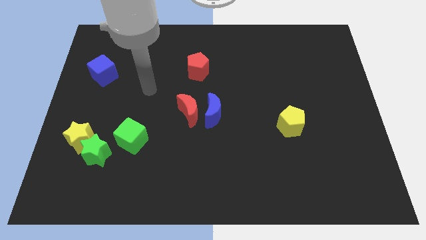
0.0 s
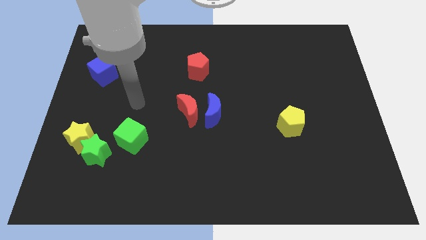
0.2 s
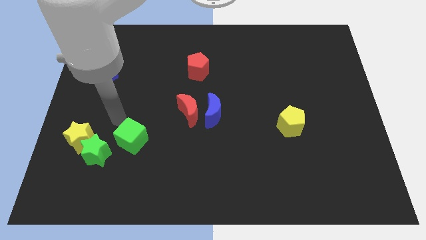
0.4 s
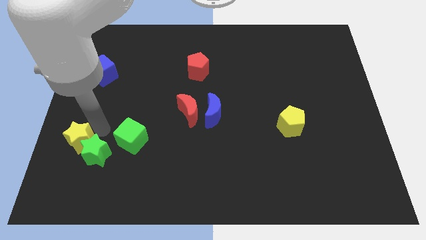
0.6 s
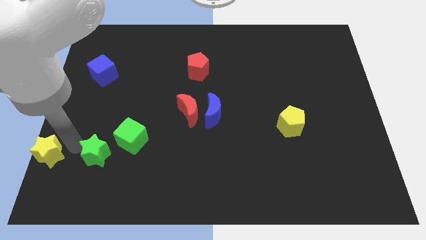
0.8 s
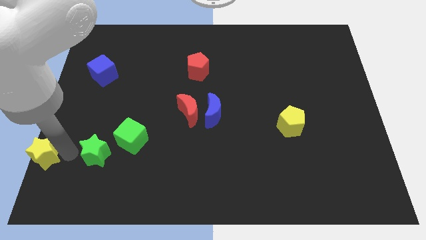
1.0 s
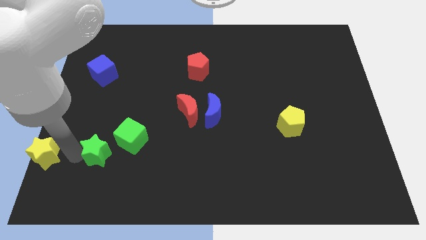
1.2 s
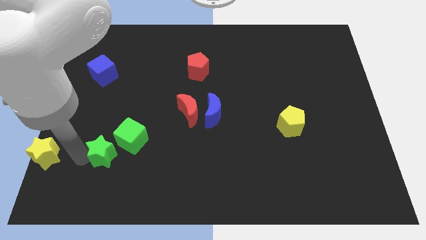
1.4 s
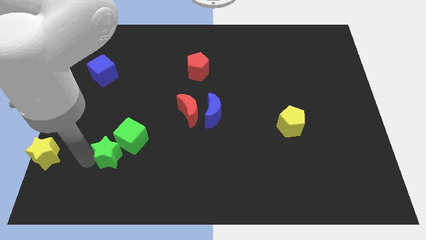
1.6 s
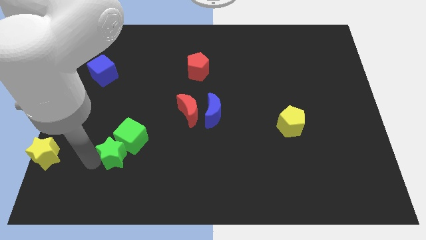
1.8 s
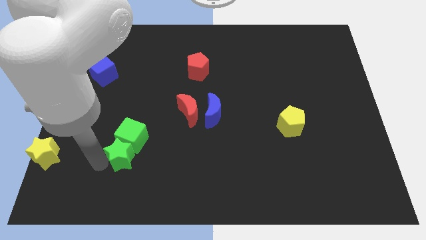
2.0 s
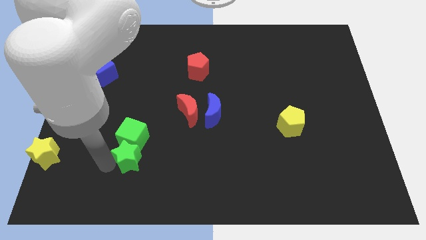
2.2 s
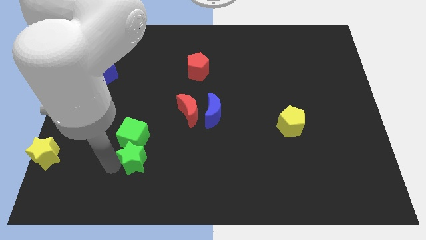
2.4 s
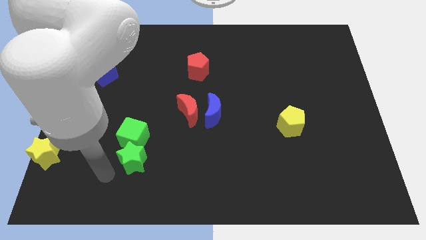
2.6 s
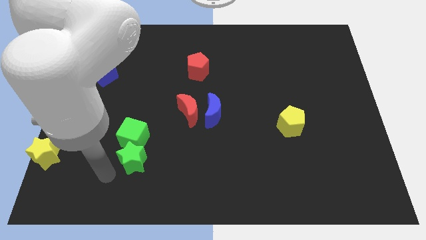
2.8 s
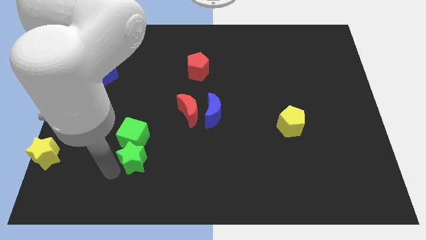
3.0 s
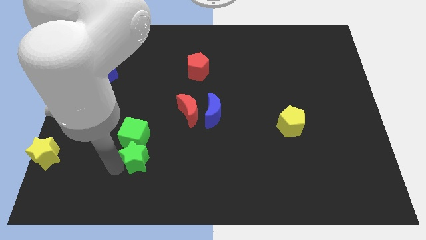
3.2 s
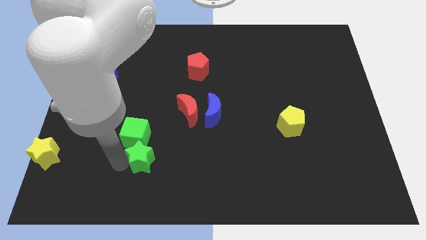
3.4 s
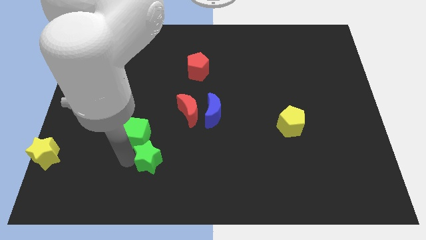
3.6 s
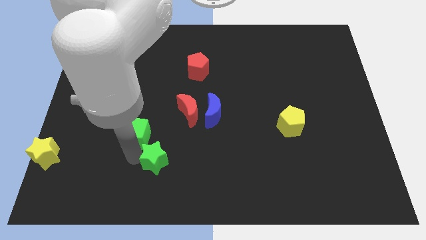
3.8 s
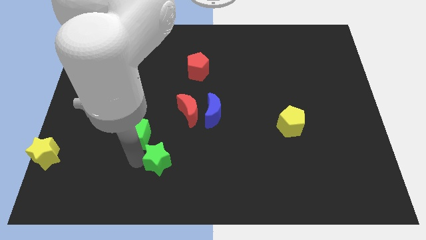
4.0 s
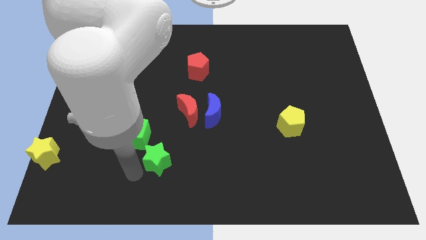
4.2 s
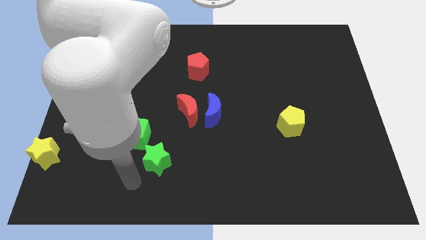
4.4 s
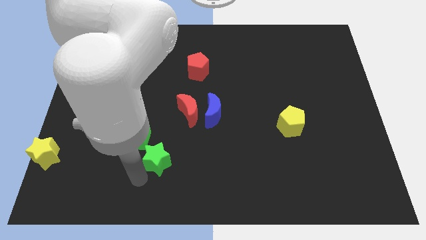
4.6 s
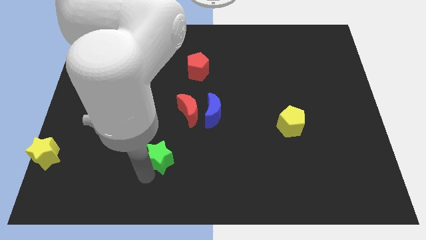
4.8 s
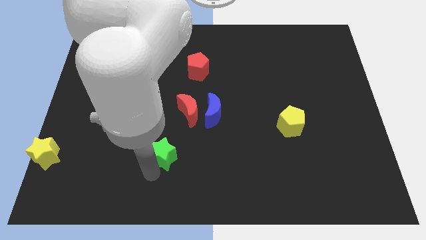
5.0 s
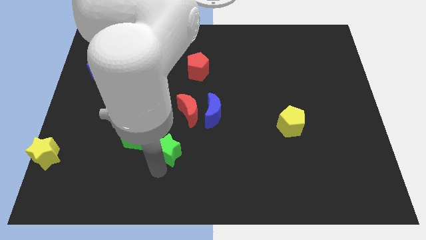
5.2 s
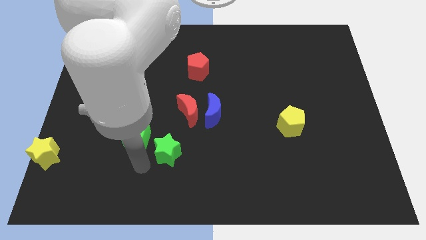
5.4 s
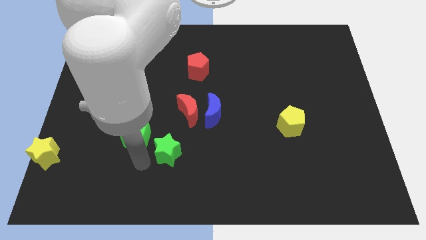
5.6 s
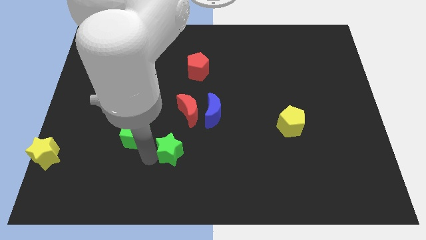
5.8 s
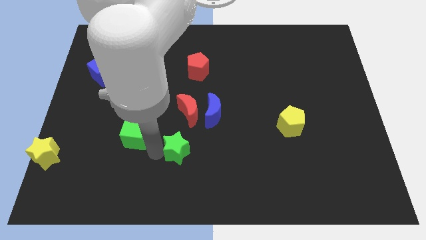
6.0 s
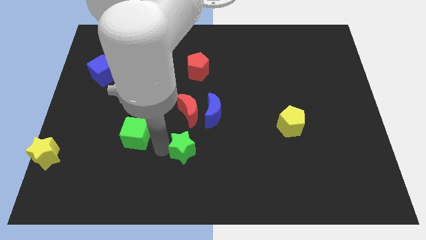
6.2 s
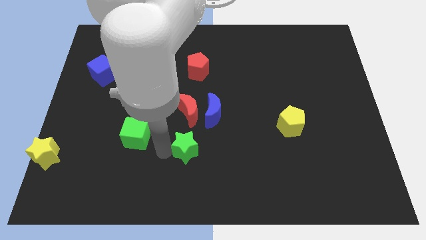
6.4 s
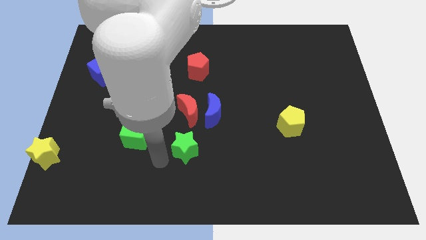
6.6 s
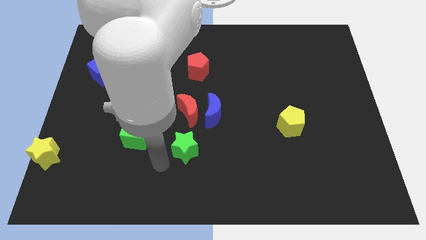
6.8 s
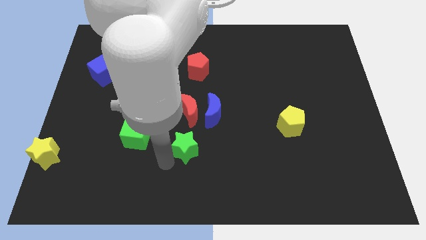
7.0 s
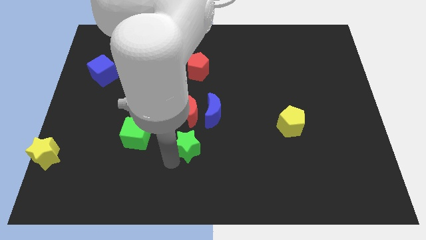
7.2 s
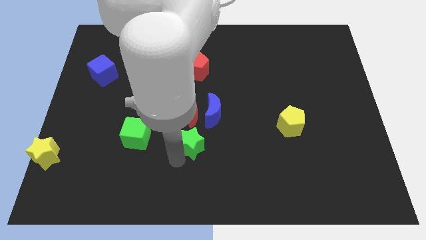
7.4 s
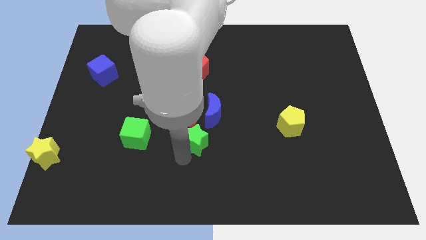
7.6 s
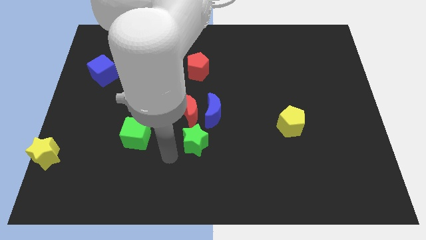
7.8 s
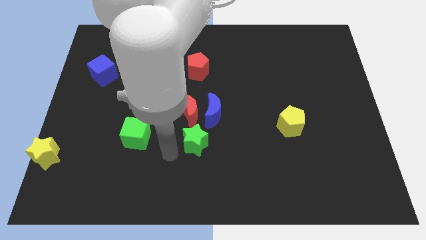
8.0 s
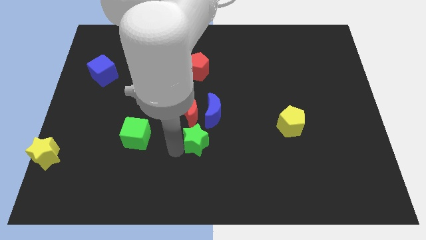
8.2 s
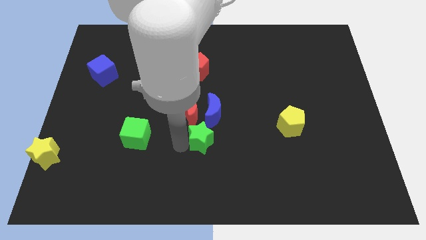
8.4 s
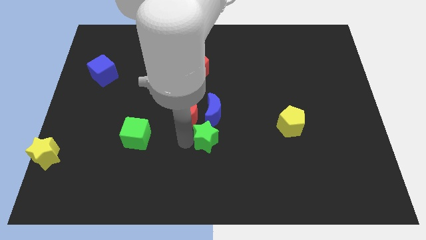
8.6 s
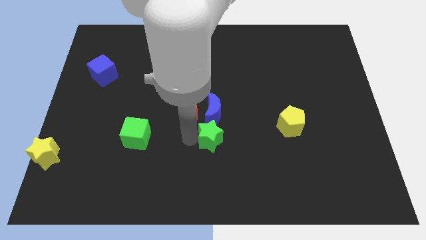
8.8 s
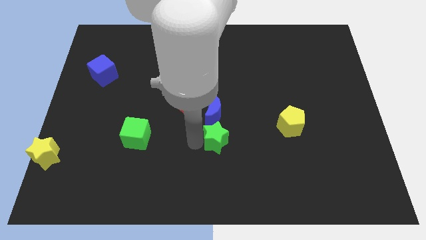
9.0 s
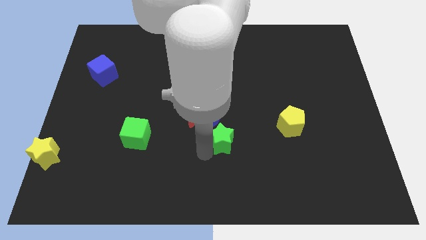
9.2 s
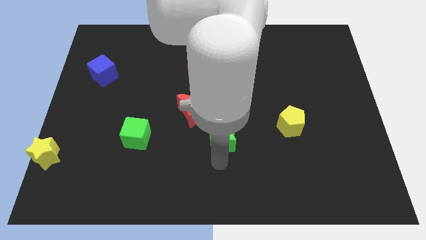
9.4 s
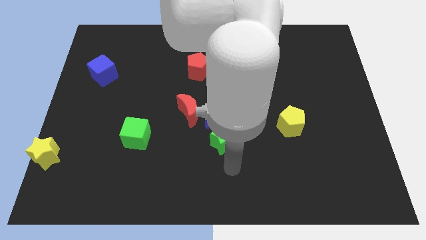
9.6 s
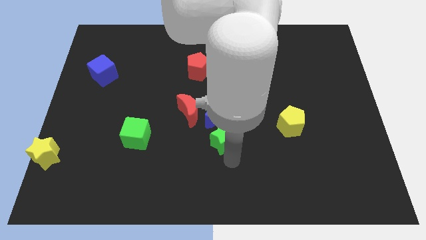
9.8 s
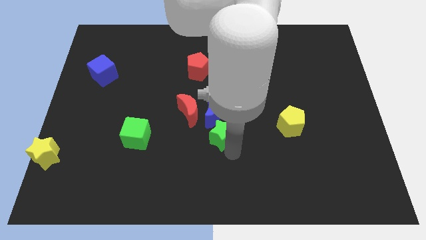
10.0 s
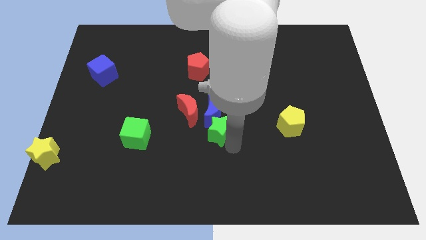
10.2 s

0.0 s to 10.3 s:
move the green star towards the blue moon

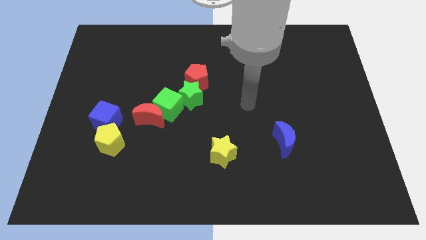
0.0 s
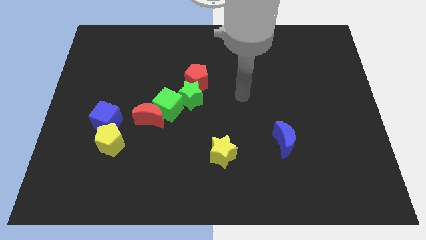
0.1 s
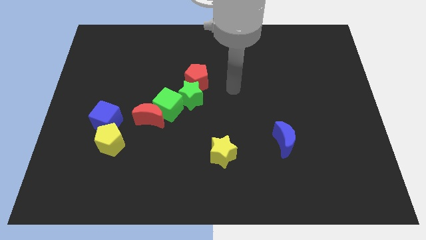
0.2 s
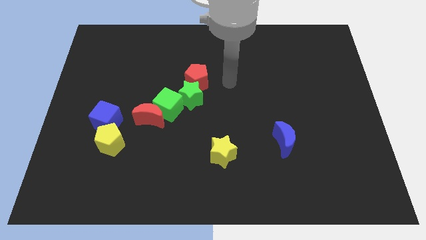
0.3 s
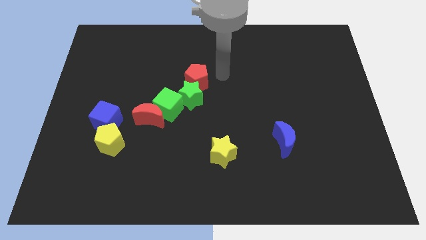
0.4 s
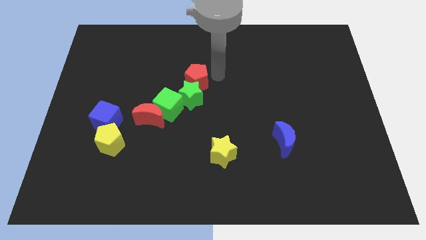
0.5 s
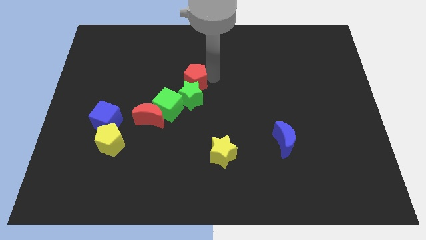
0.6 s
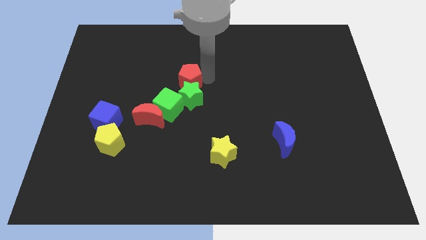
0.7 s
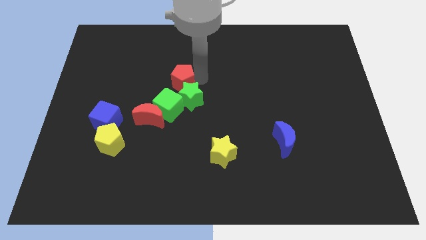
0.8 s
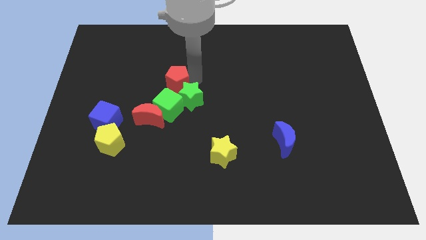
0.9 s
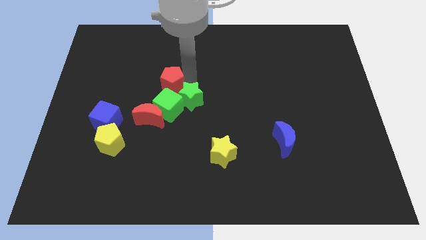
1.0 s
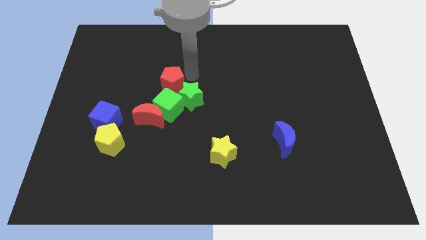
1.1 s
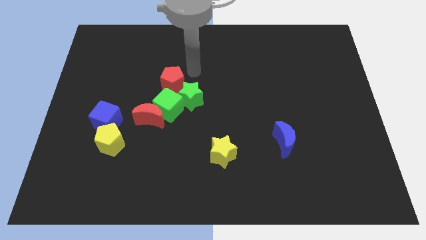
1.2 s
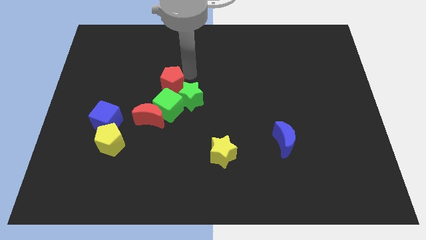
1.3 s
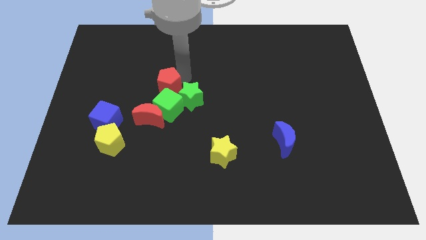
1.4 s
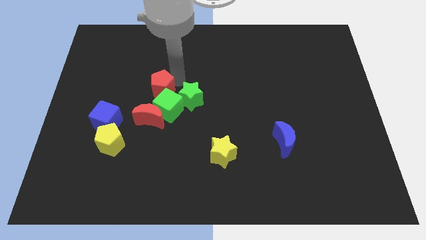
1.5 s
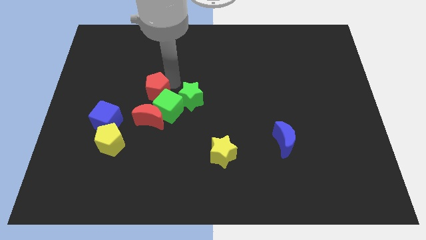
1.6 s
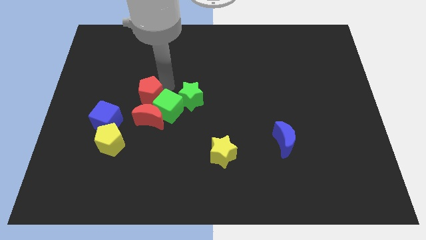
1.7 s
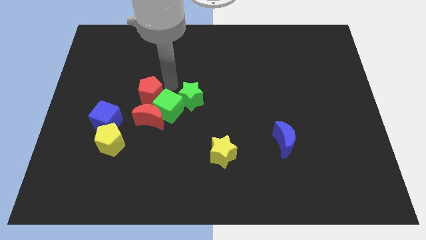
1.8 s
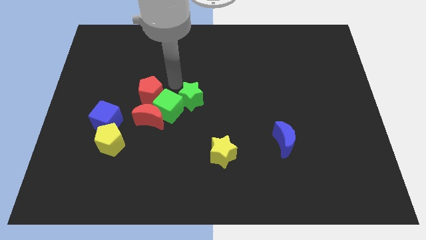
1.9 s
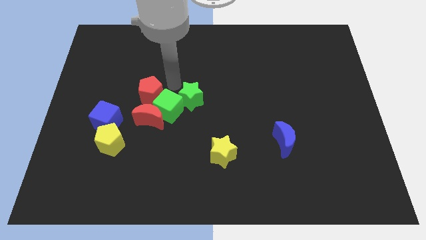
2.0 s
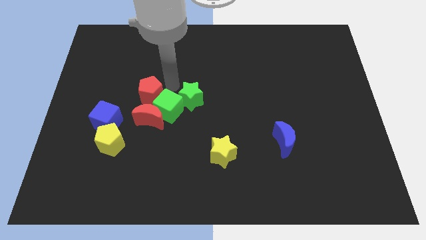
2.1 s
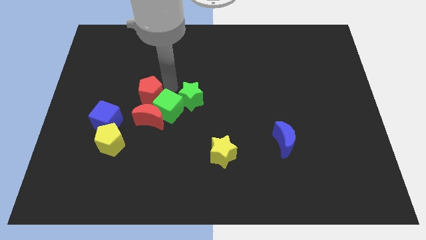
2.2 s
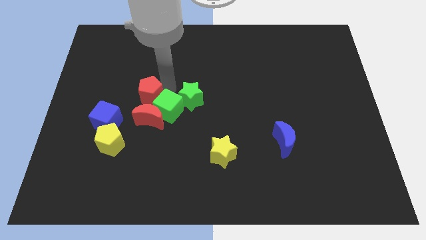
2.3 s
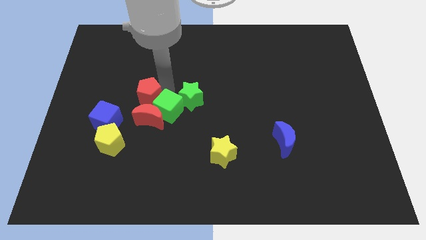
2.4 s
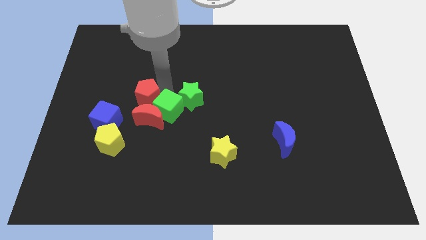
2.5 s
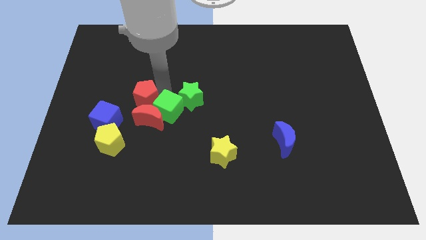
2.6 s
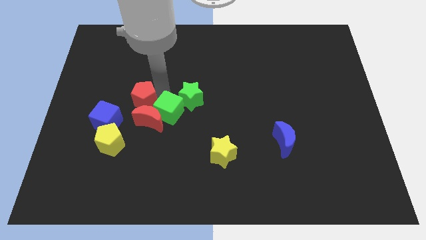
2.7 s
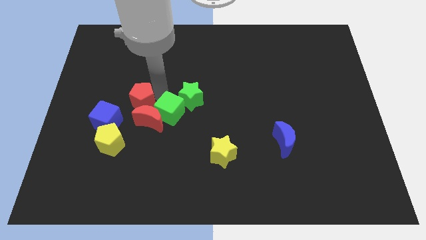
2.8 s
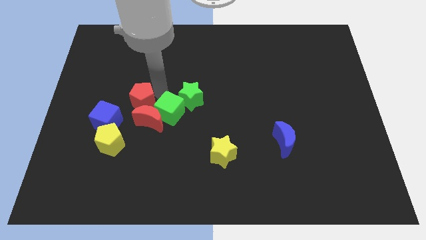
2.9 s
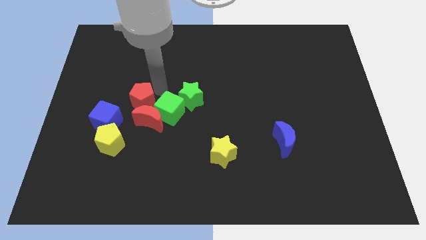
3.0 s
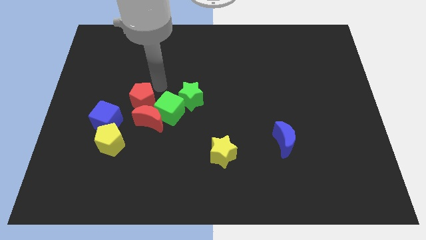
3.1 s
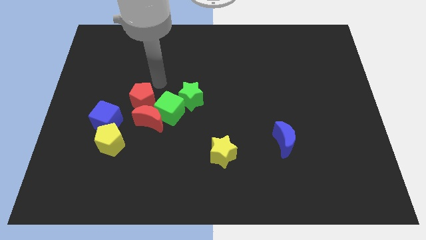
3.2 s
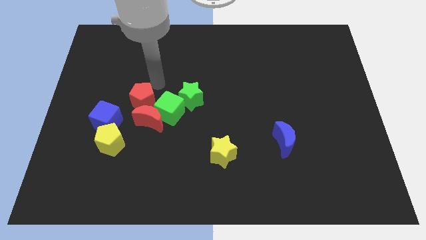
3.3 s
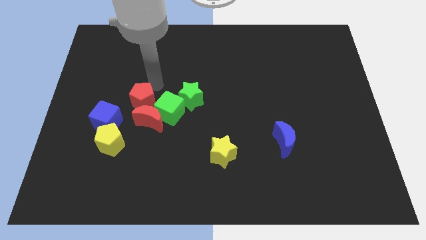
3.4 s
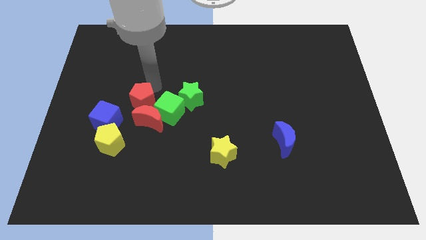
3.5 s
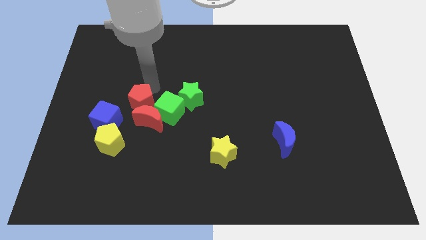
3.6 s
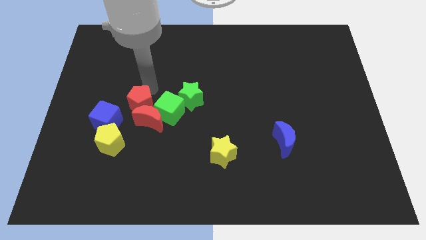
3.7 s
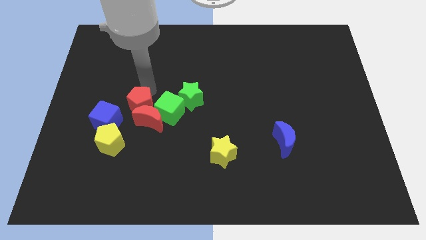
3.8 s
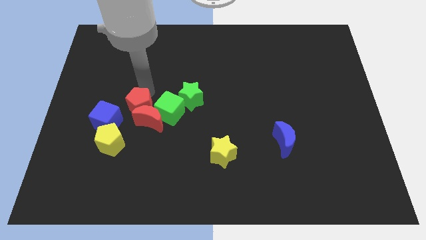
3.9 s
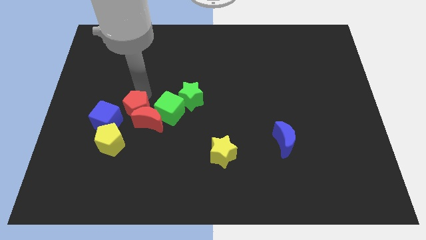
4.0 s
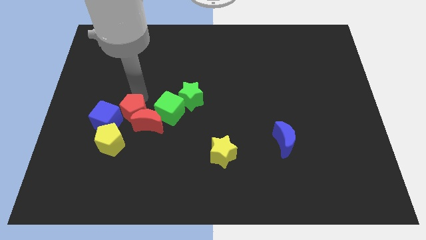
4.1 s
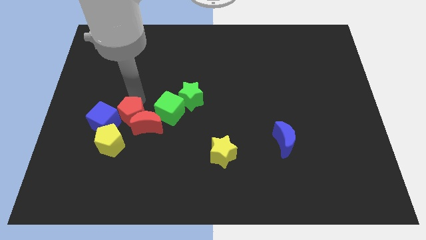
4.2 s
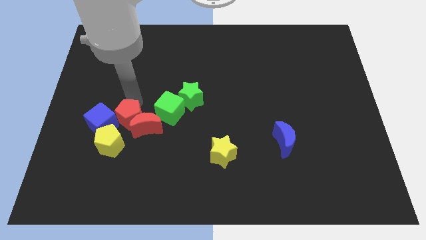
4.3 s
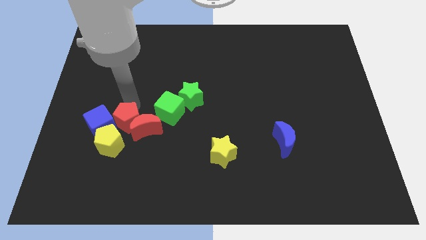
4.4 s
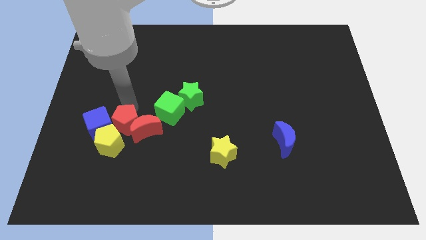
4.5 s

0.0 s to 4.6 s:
move the red pentagon next to the yellow pentagon
